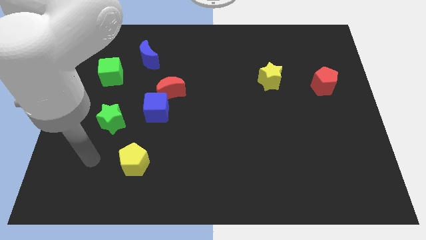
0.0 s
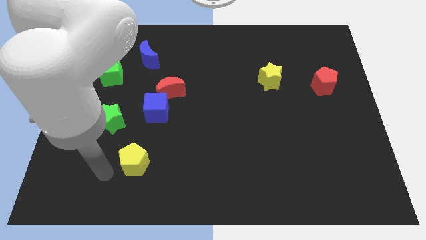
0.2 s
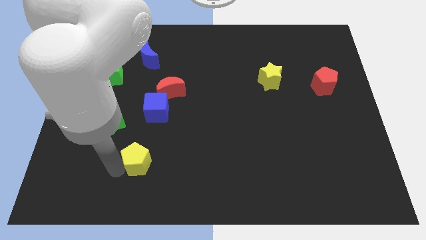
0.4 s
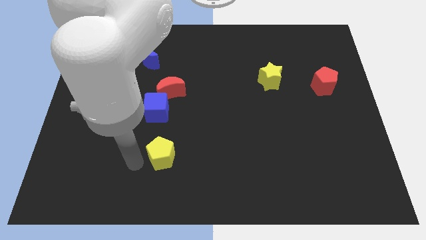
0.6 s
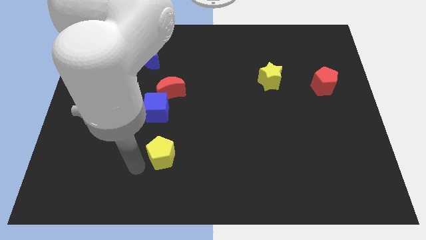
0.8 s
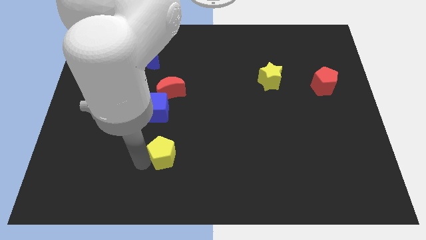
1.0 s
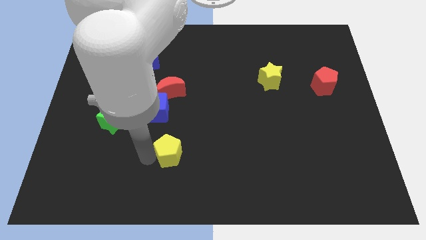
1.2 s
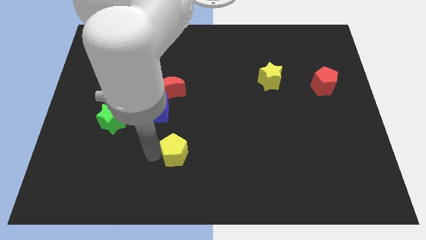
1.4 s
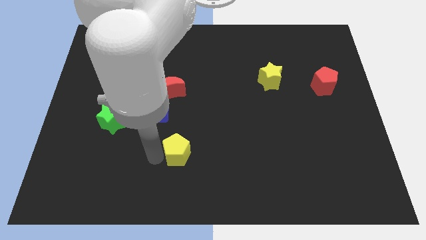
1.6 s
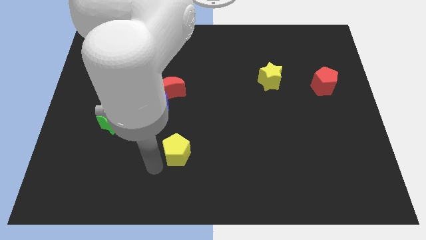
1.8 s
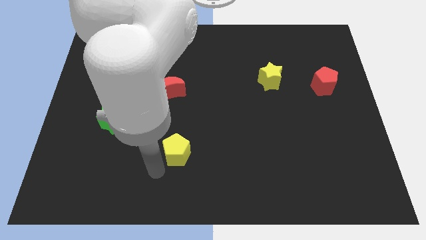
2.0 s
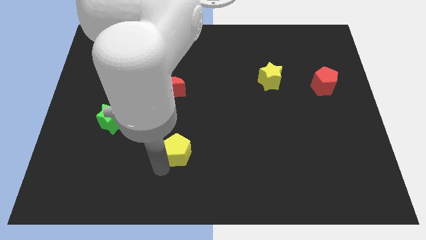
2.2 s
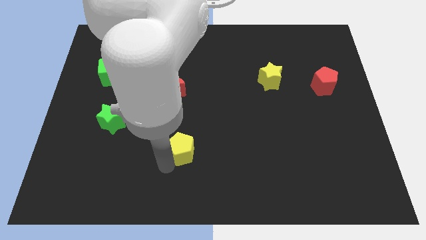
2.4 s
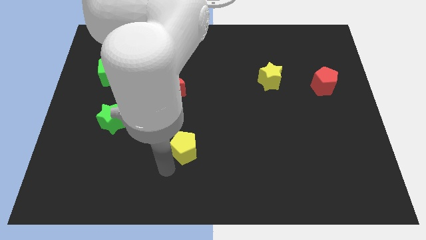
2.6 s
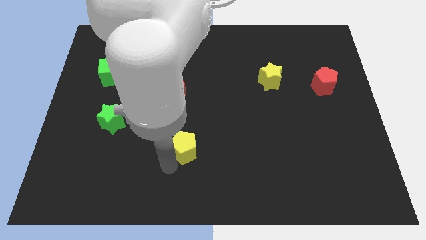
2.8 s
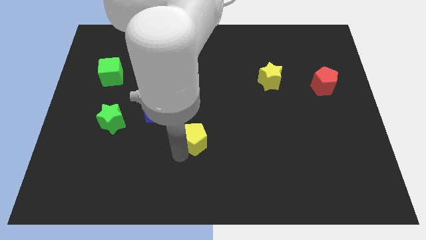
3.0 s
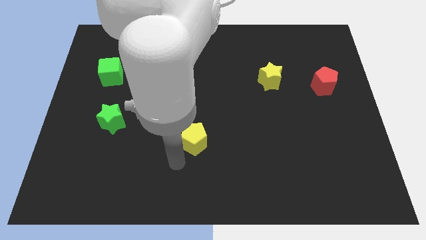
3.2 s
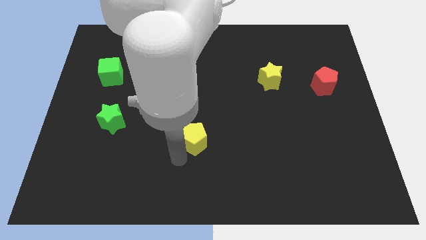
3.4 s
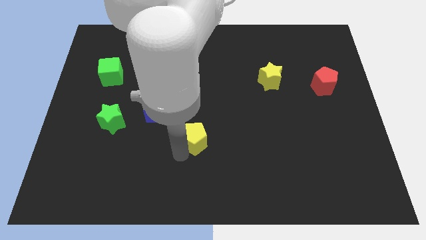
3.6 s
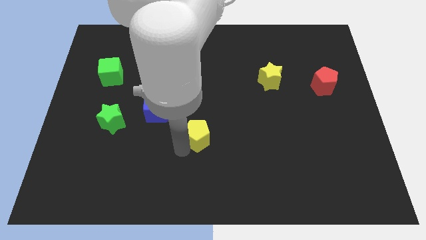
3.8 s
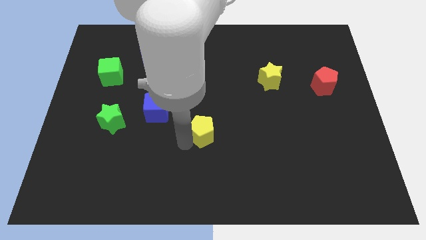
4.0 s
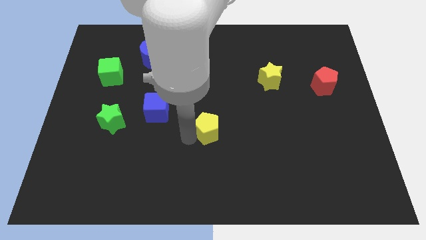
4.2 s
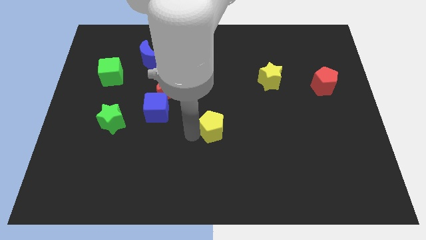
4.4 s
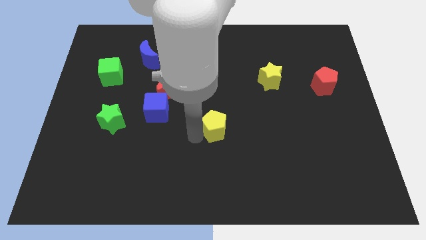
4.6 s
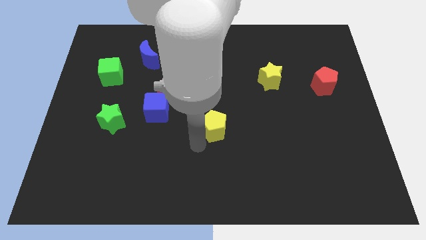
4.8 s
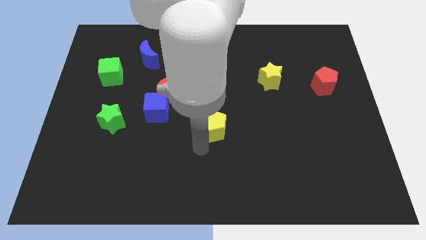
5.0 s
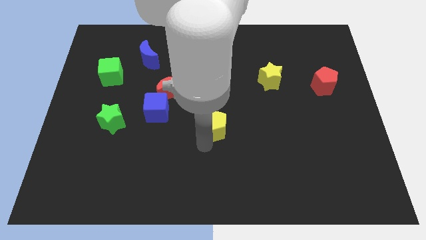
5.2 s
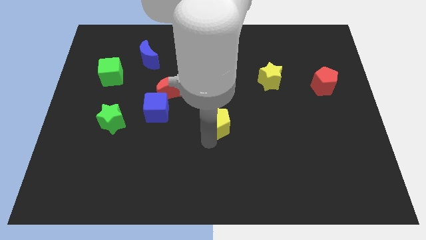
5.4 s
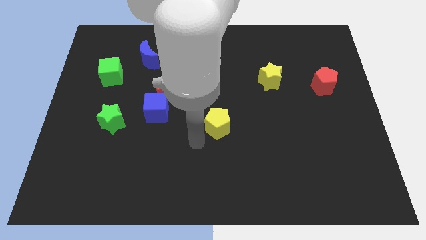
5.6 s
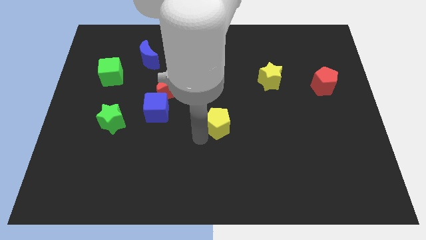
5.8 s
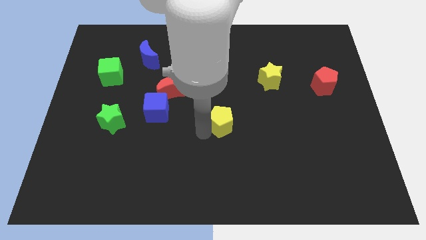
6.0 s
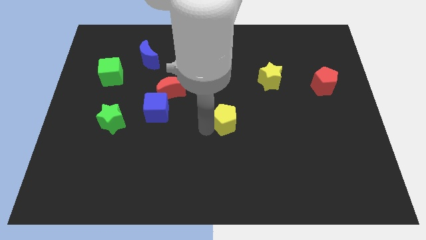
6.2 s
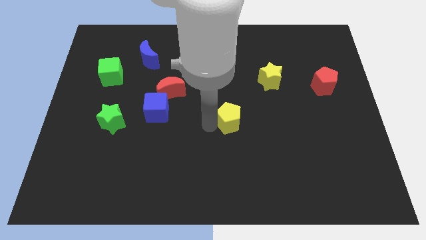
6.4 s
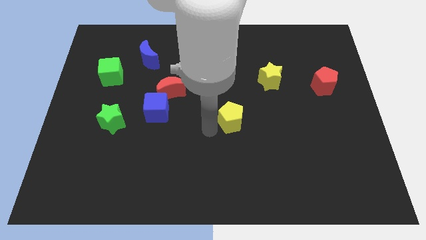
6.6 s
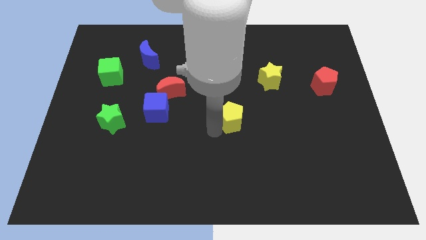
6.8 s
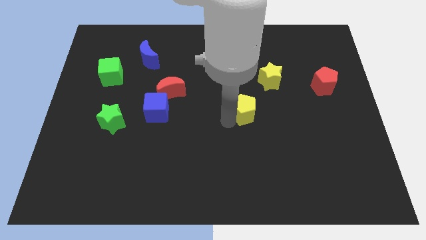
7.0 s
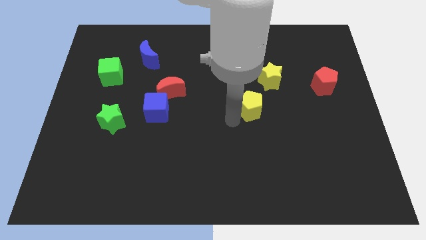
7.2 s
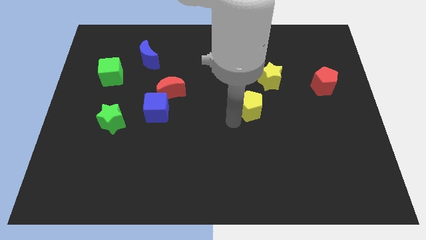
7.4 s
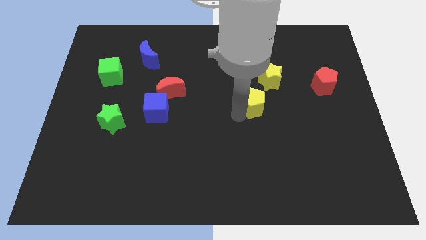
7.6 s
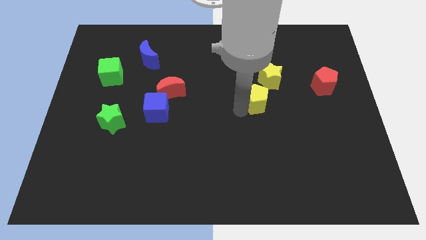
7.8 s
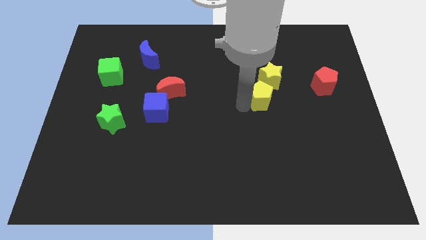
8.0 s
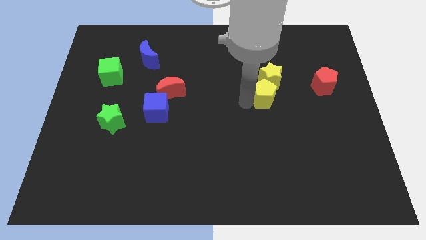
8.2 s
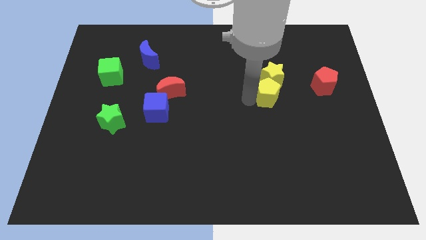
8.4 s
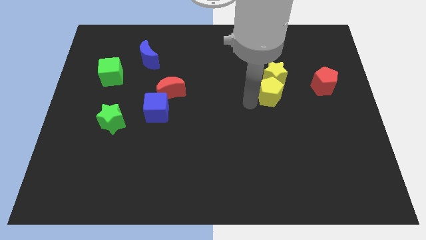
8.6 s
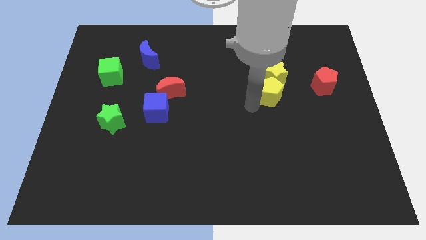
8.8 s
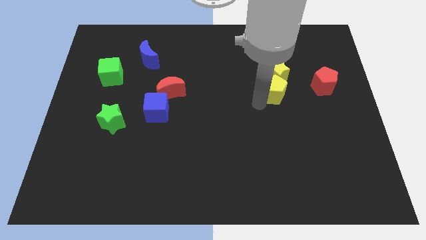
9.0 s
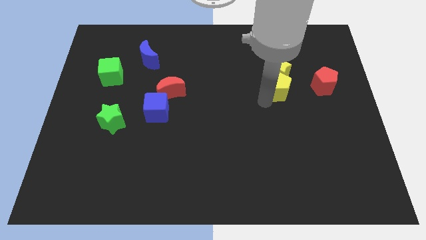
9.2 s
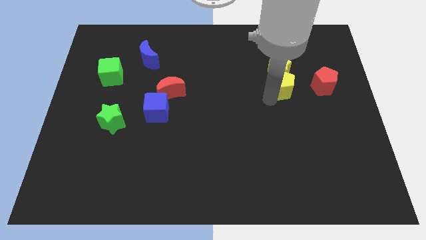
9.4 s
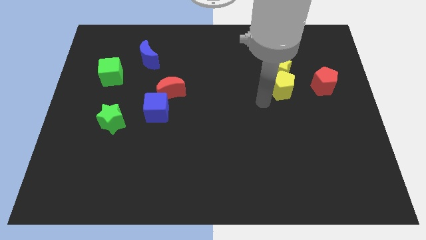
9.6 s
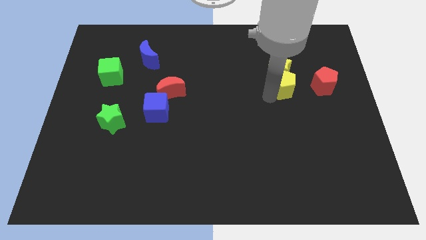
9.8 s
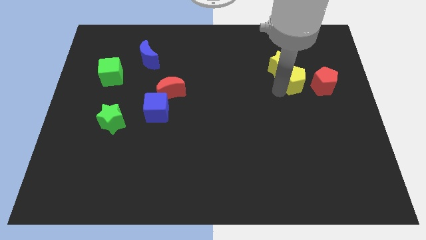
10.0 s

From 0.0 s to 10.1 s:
push the yellow pentagon to the top left side of the red pentagon

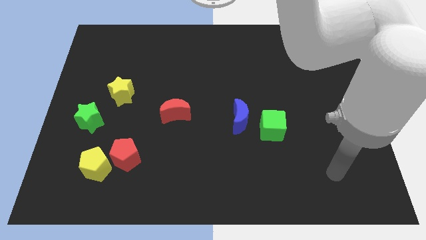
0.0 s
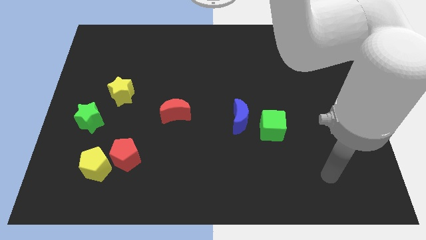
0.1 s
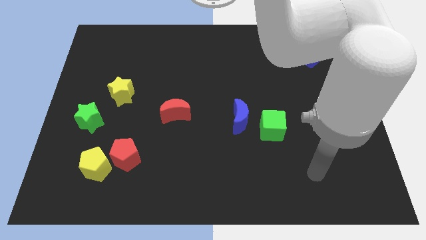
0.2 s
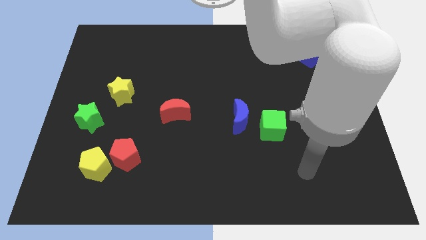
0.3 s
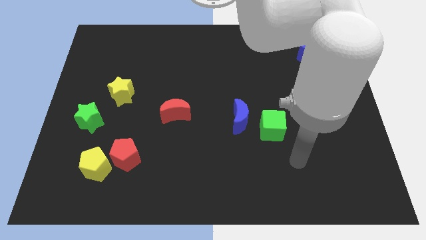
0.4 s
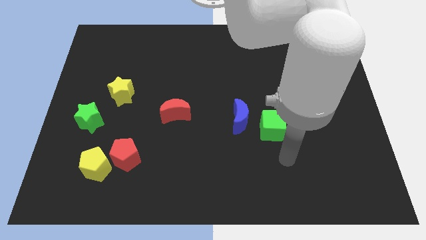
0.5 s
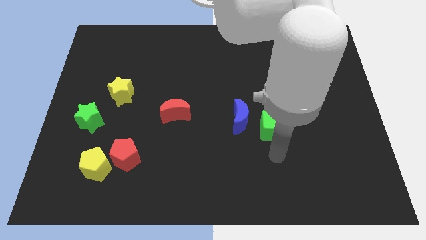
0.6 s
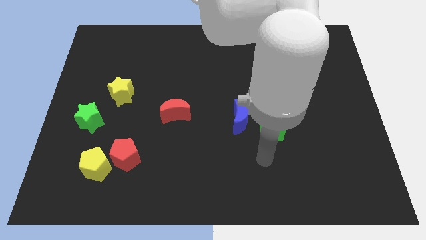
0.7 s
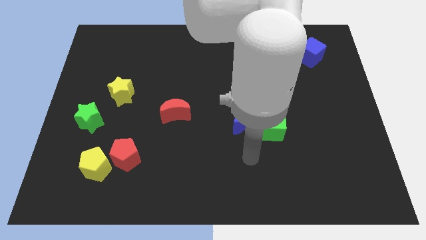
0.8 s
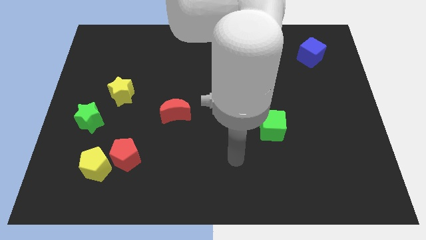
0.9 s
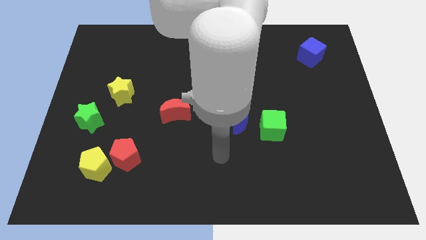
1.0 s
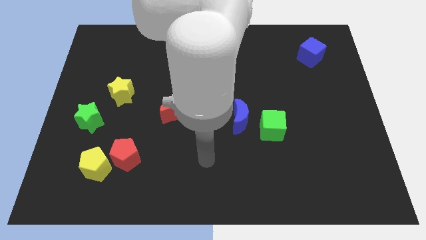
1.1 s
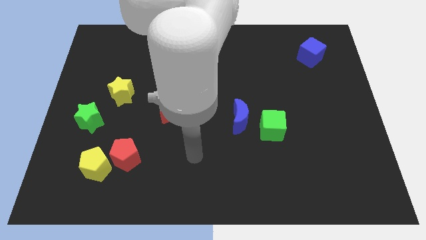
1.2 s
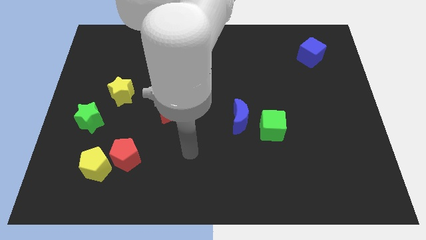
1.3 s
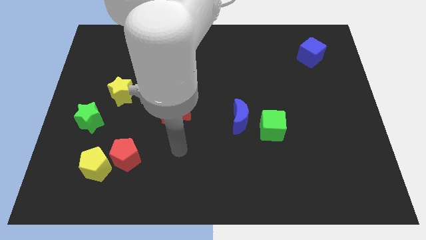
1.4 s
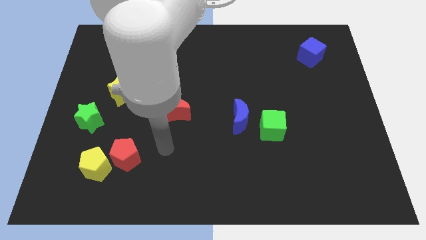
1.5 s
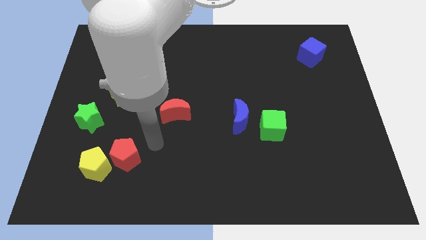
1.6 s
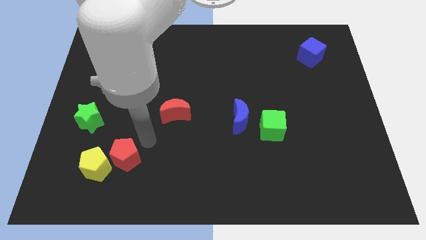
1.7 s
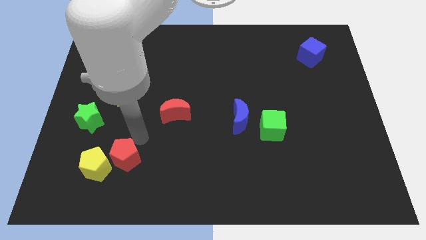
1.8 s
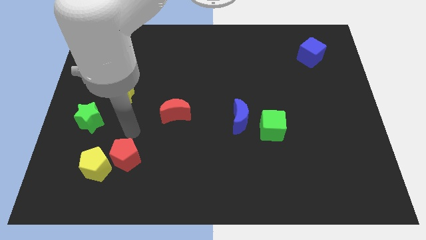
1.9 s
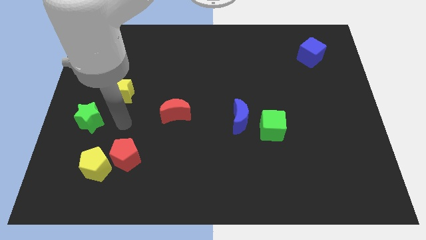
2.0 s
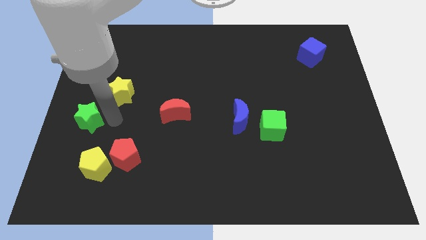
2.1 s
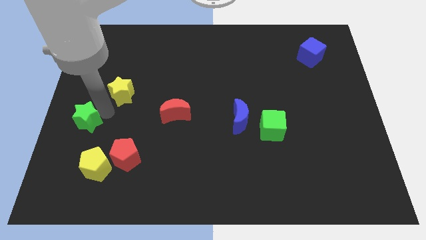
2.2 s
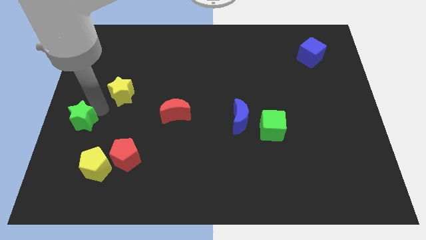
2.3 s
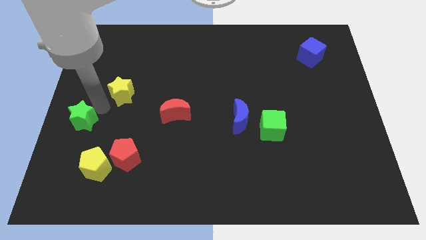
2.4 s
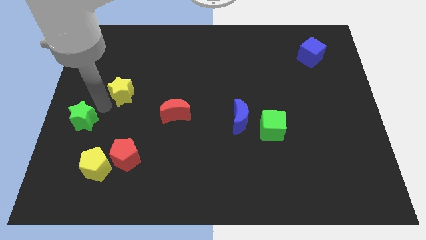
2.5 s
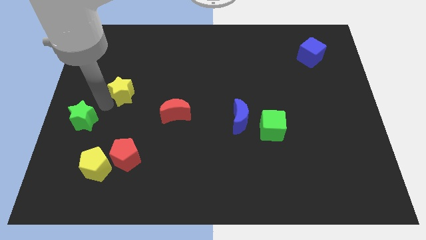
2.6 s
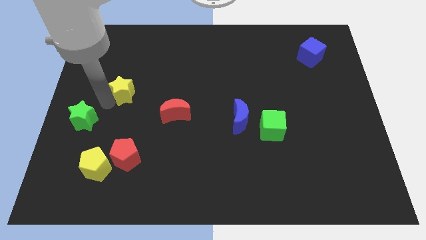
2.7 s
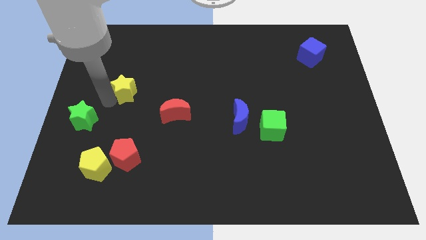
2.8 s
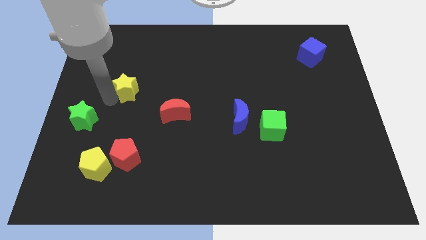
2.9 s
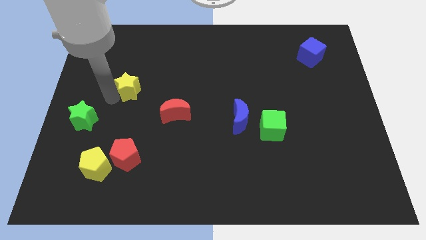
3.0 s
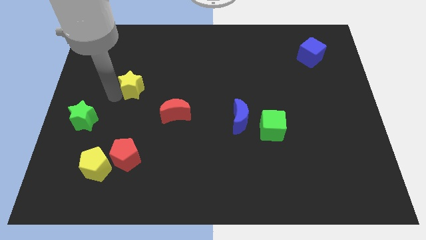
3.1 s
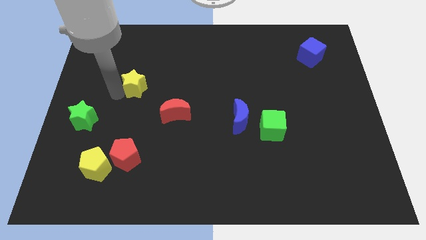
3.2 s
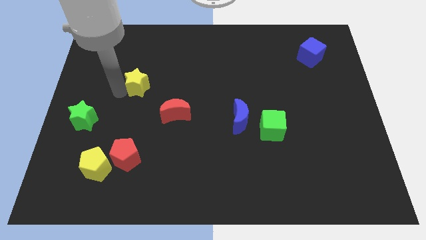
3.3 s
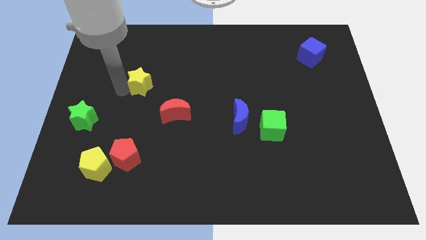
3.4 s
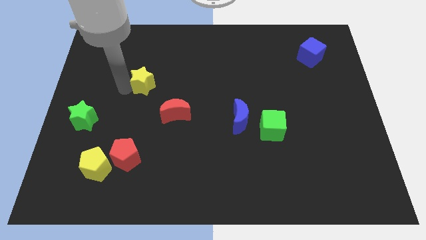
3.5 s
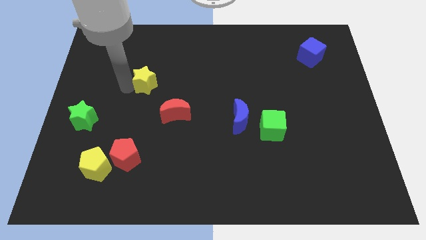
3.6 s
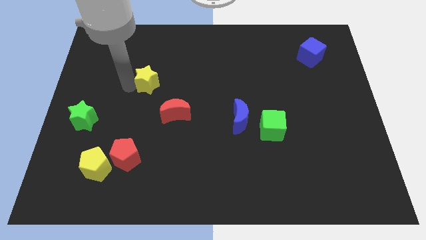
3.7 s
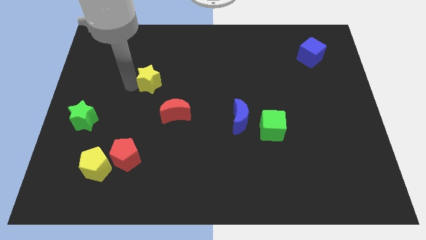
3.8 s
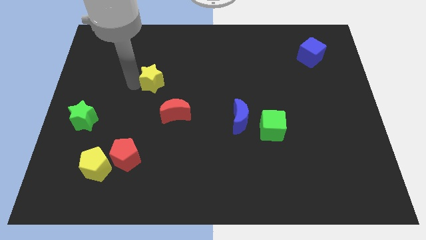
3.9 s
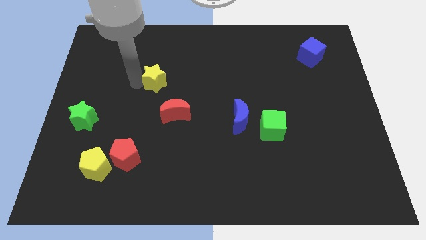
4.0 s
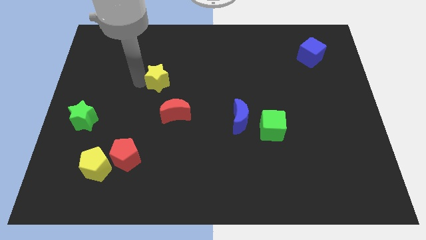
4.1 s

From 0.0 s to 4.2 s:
push the yellow star to the top of the red moon
